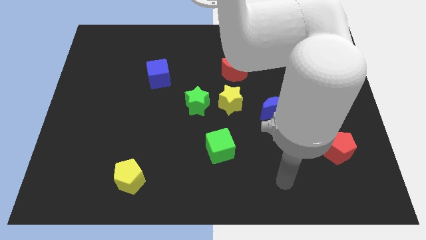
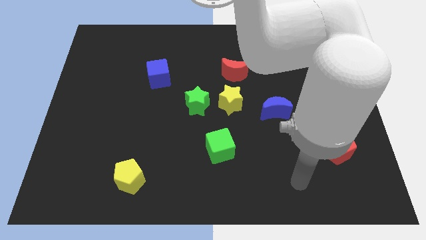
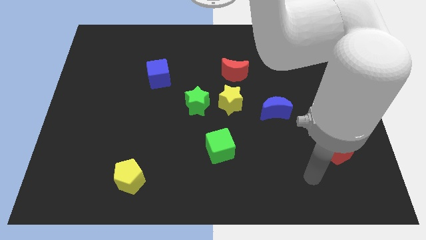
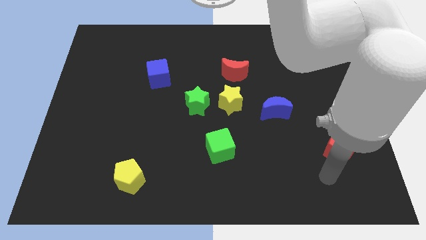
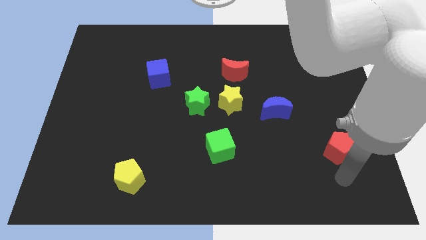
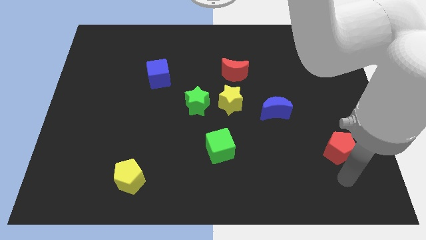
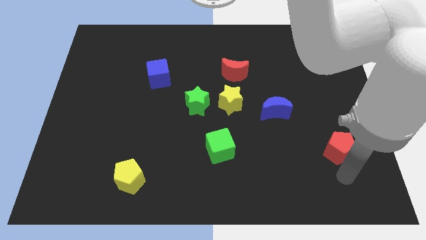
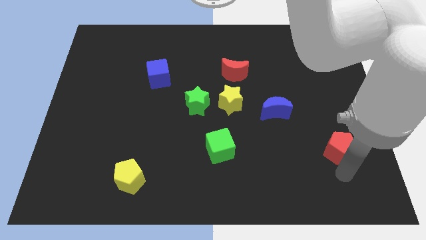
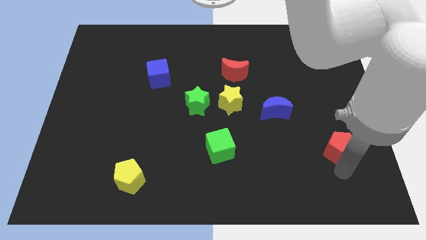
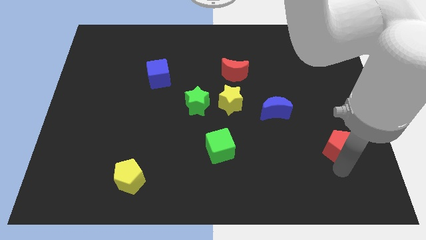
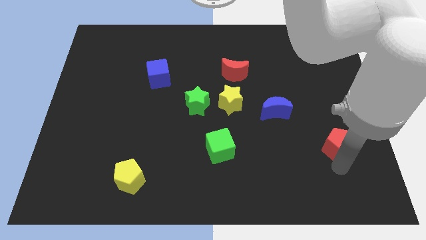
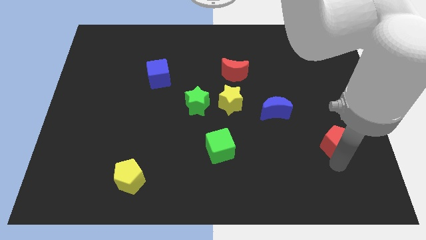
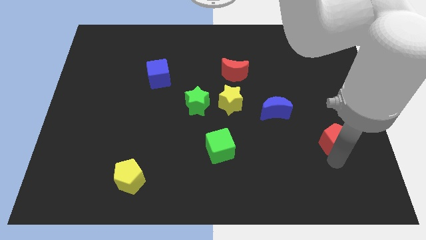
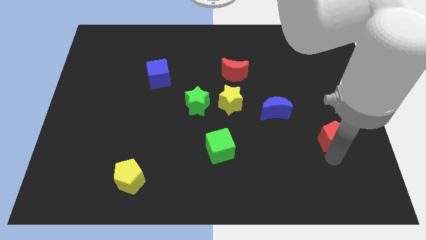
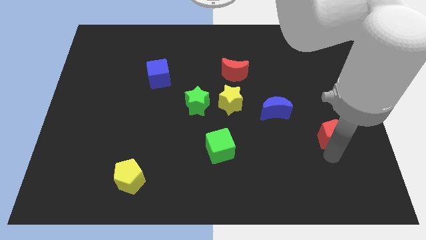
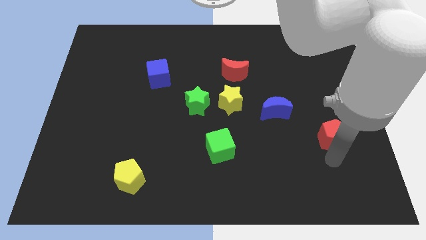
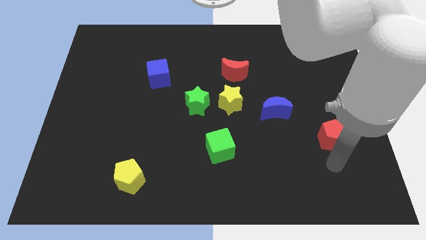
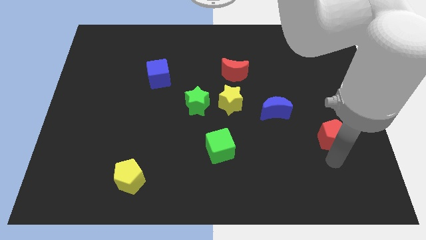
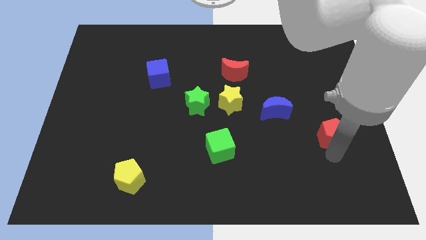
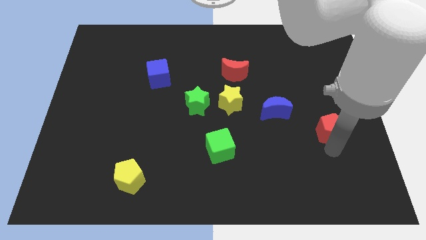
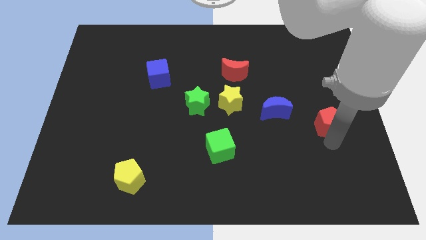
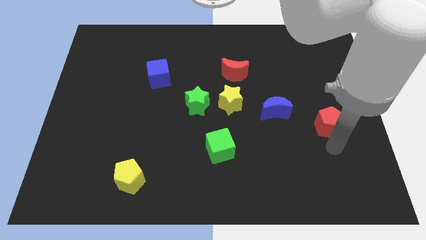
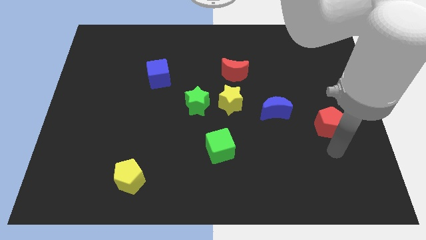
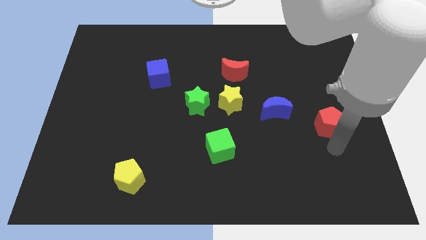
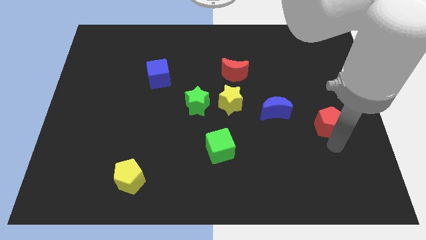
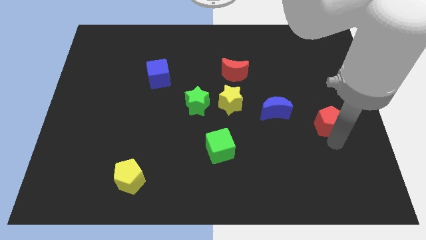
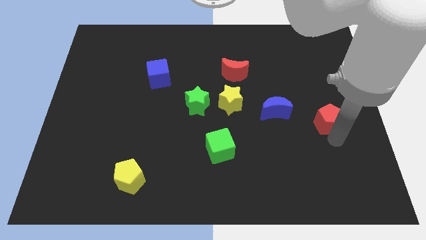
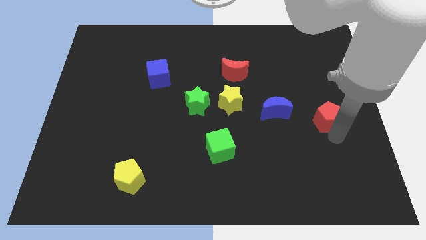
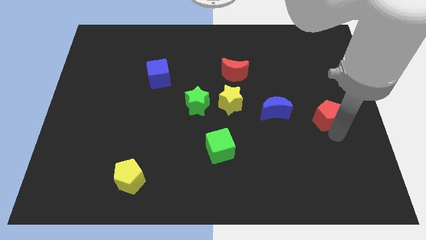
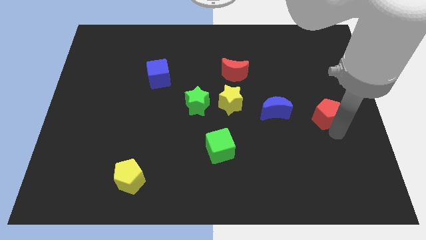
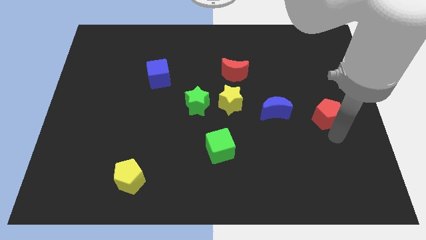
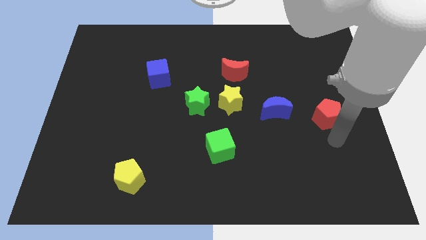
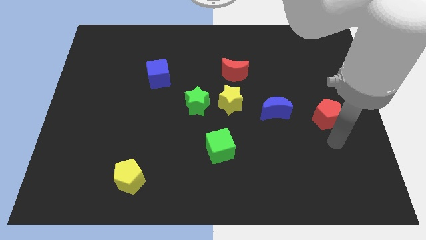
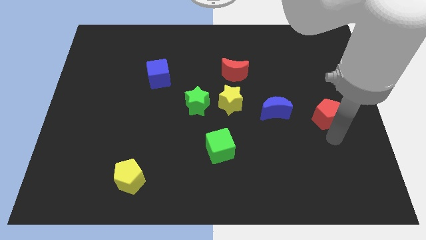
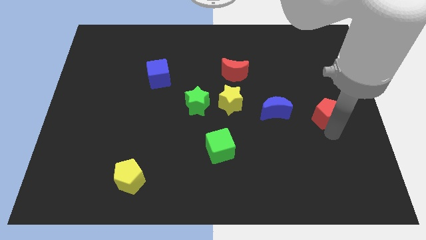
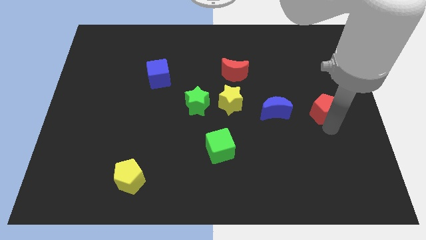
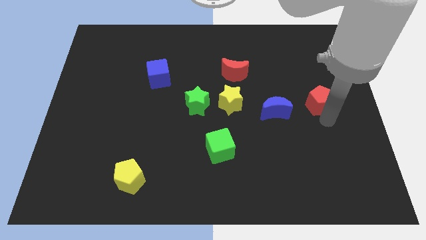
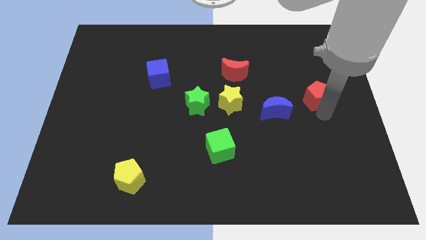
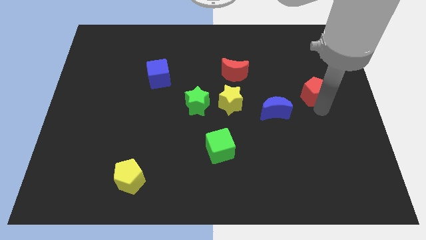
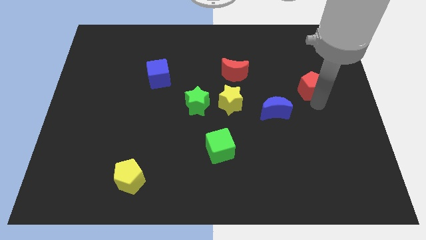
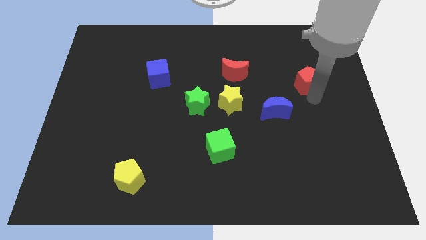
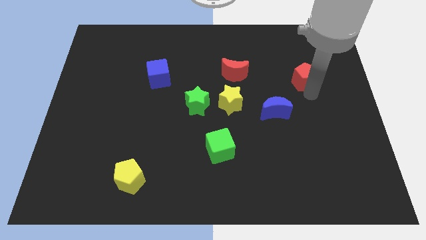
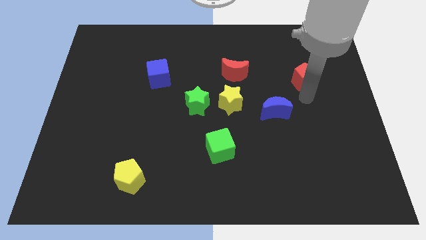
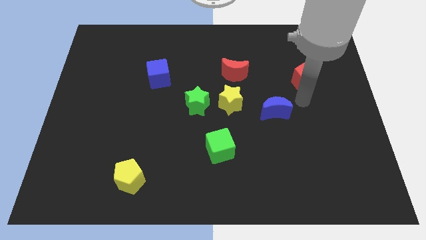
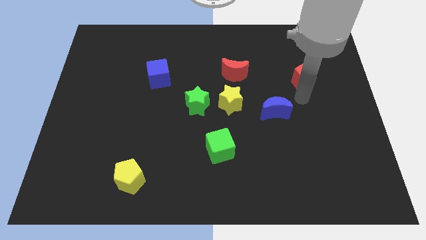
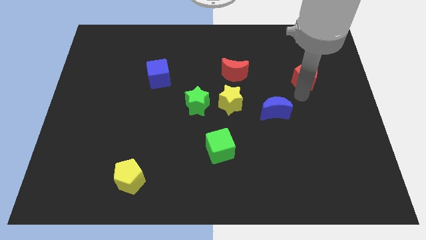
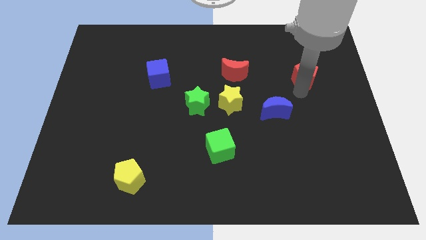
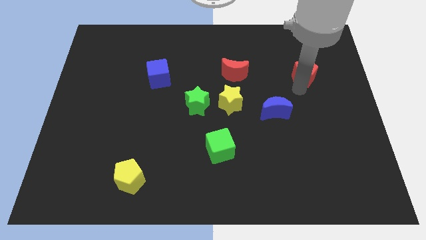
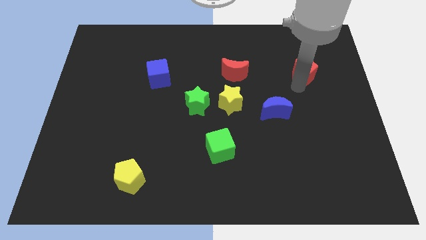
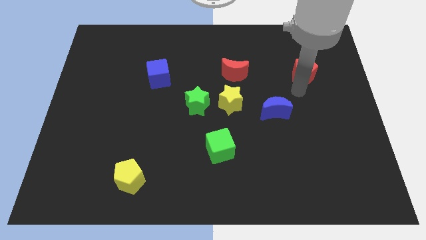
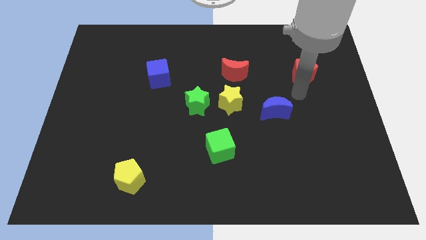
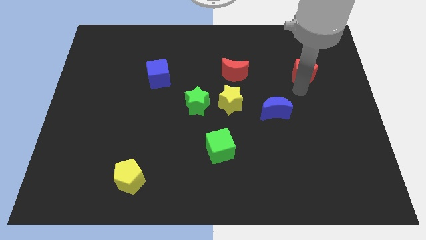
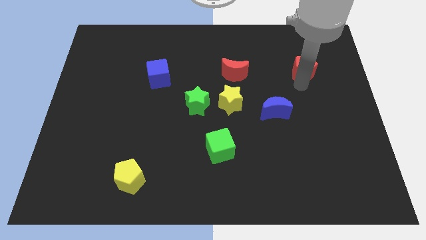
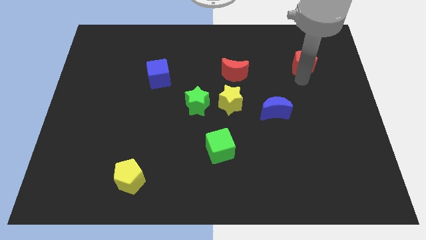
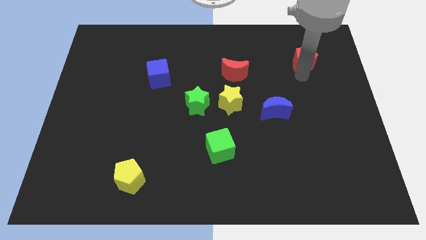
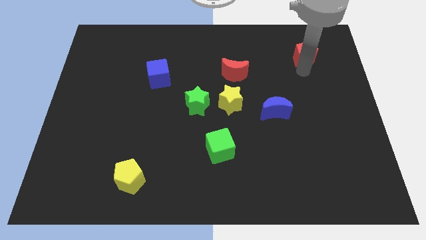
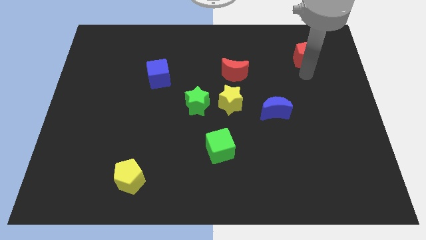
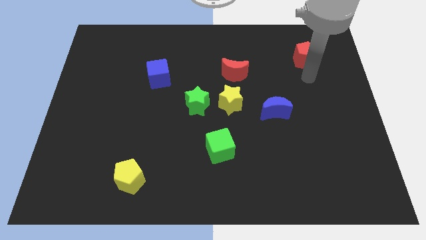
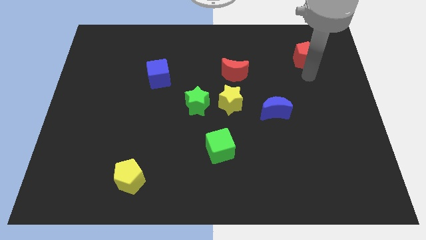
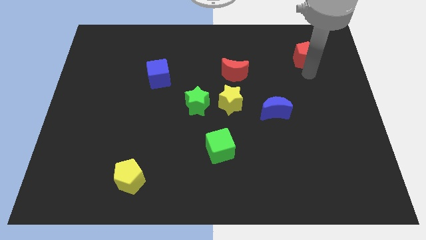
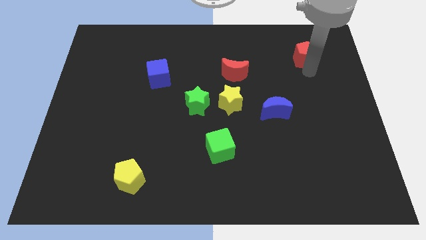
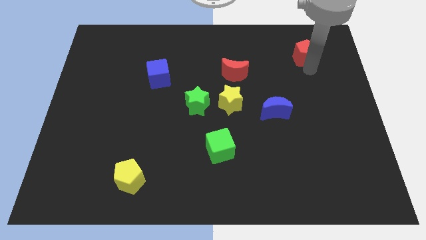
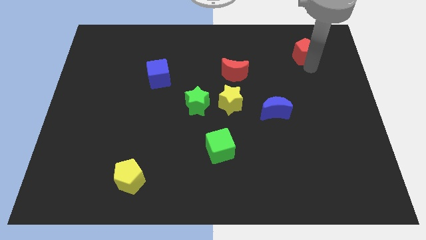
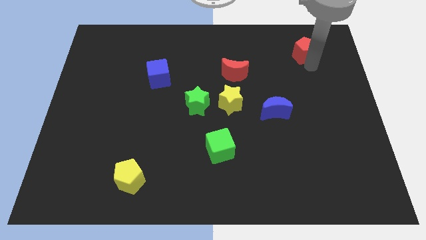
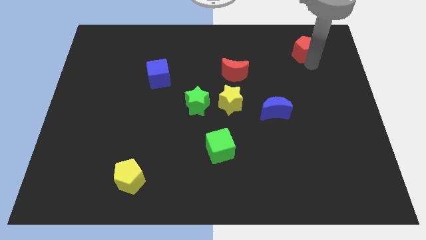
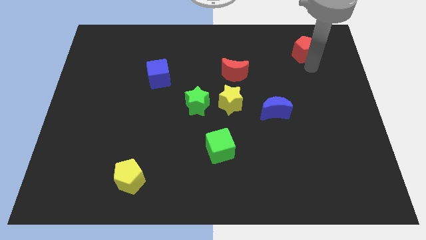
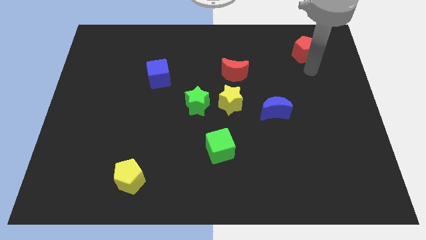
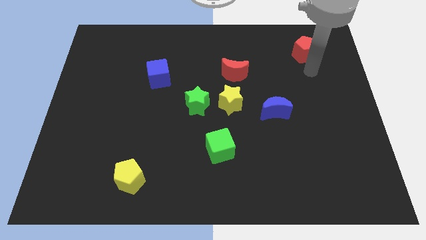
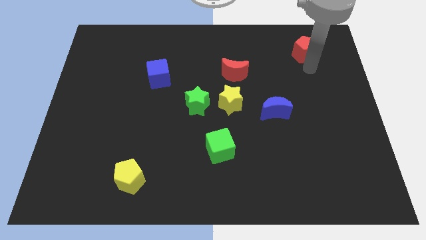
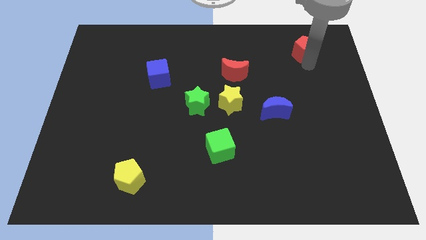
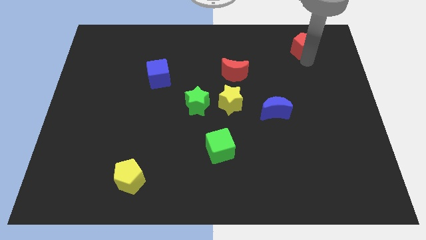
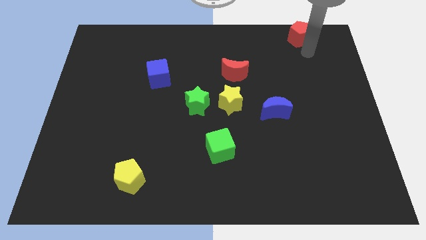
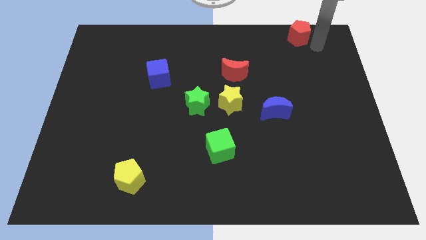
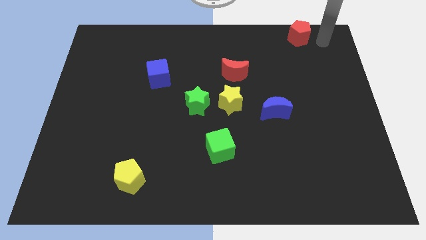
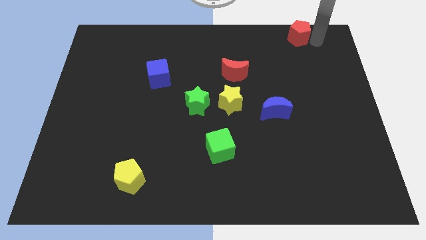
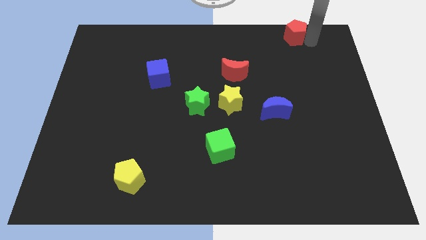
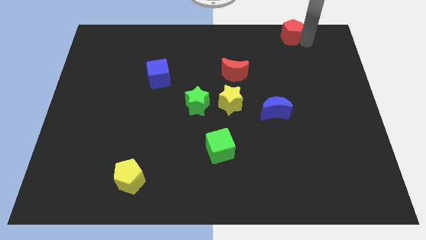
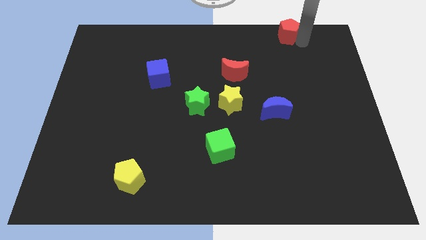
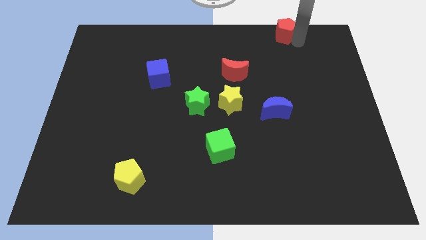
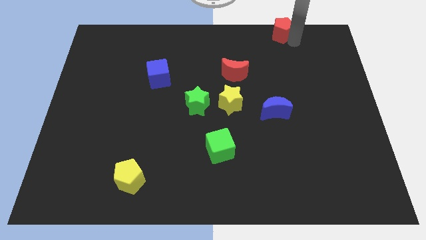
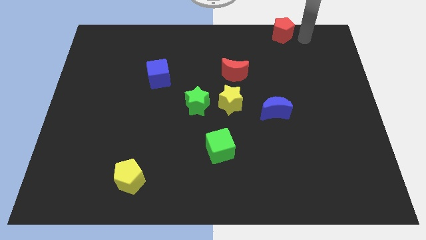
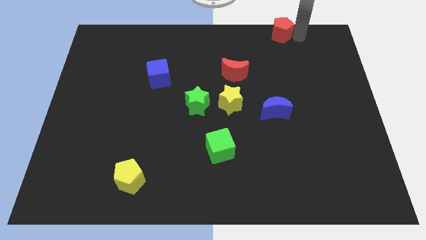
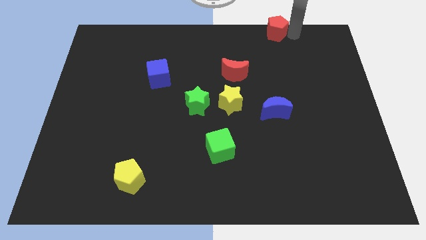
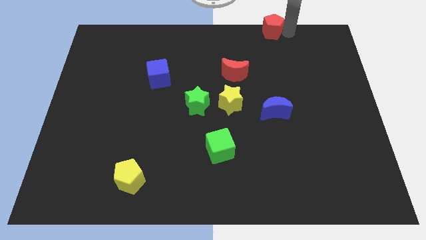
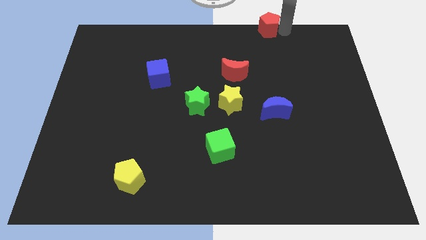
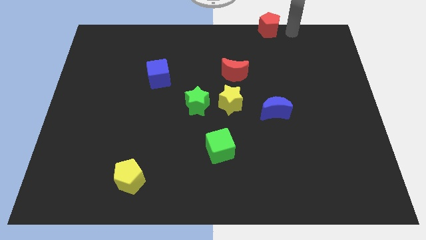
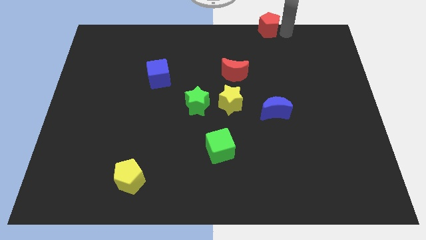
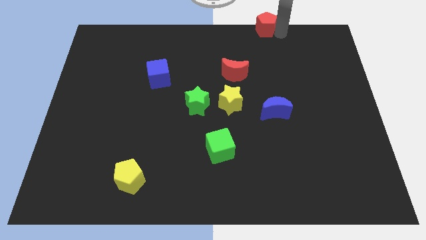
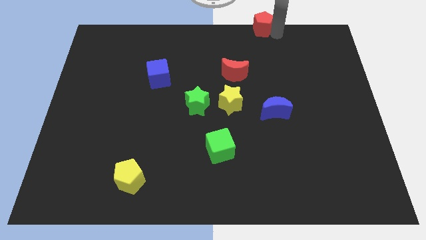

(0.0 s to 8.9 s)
push the red pentagon to the towards your base
